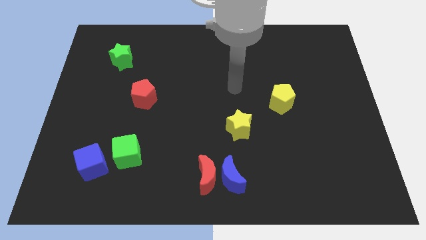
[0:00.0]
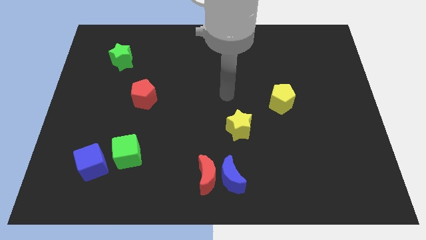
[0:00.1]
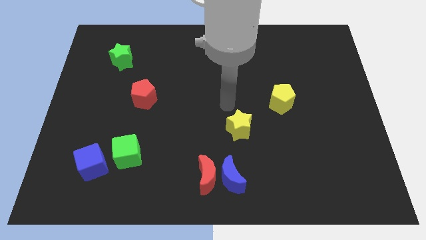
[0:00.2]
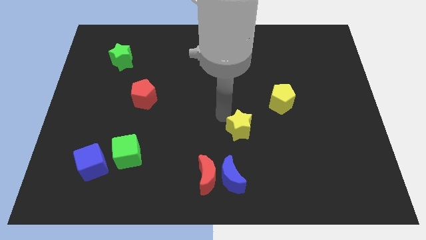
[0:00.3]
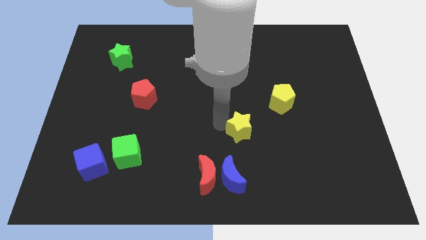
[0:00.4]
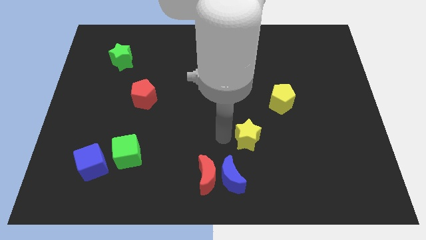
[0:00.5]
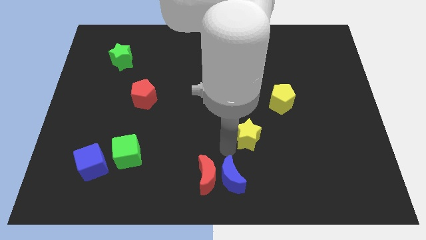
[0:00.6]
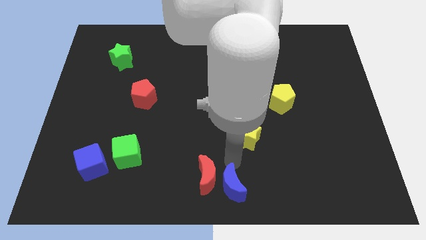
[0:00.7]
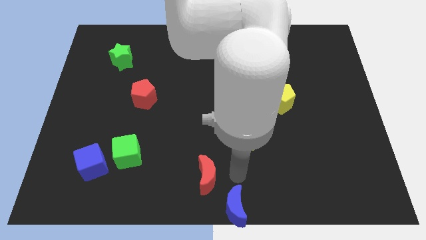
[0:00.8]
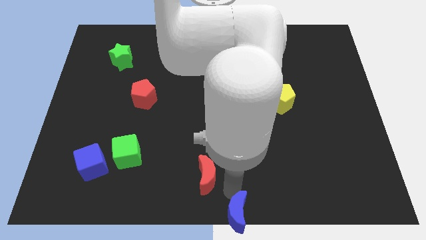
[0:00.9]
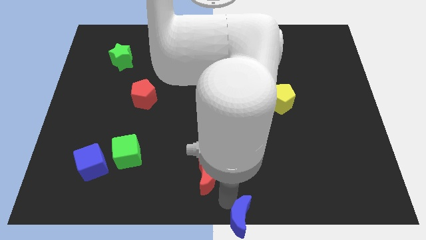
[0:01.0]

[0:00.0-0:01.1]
move the red moon away from the blue moon

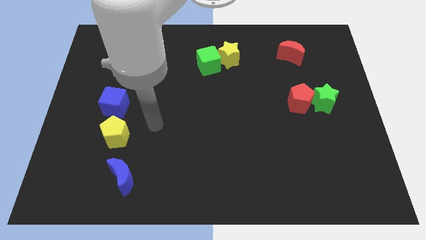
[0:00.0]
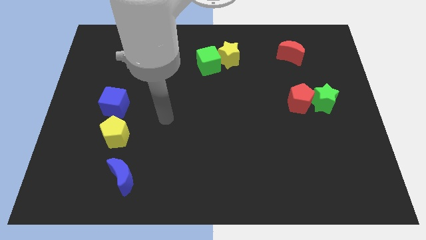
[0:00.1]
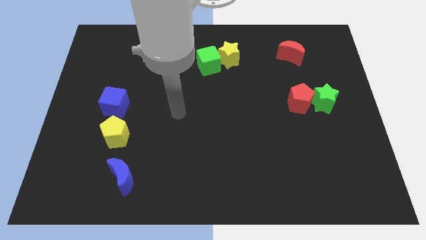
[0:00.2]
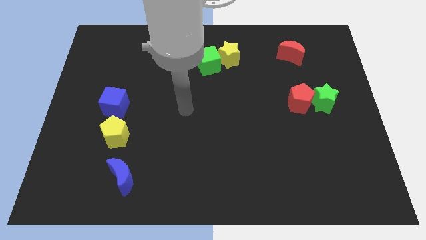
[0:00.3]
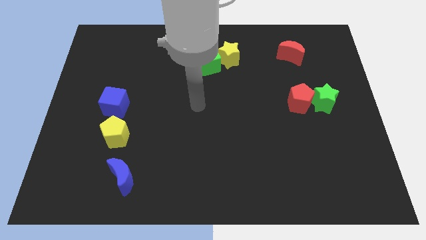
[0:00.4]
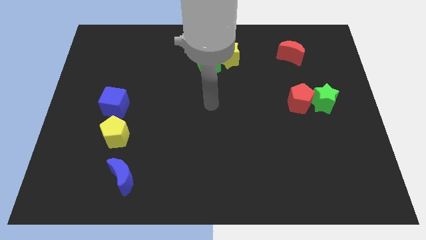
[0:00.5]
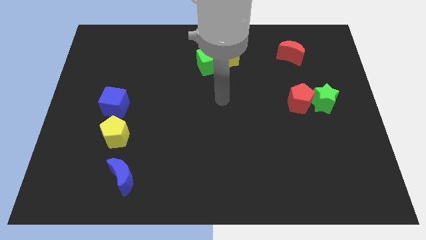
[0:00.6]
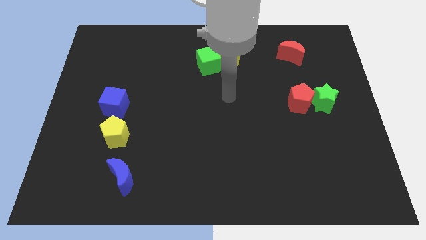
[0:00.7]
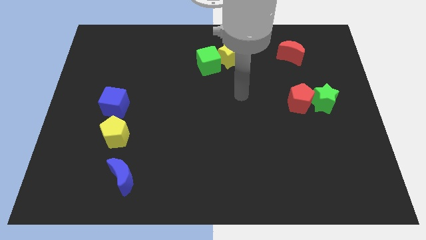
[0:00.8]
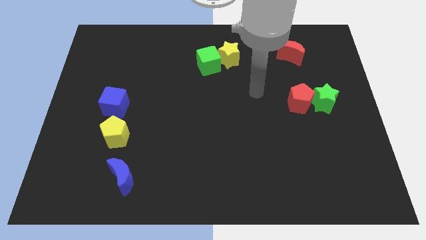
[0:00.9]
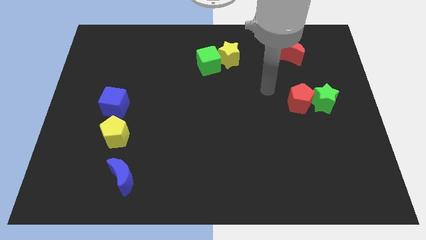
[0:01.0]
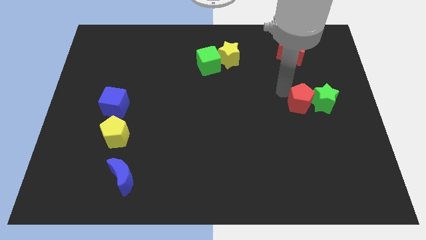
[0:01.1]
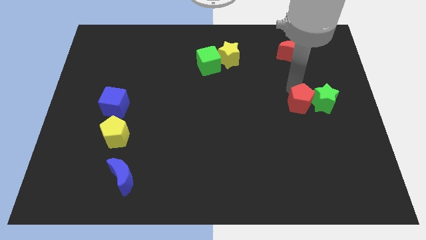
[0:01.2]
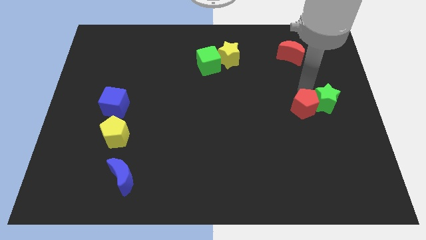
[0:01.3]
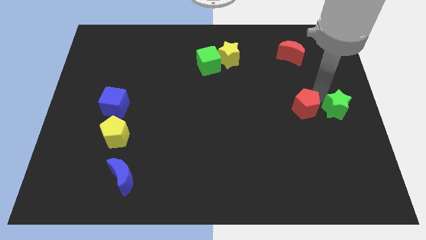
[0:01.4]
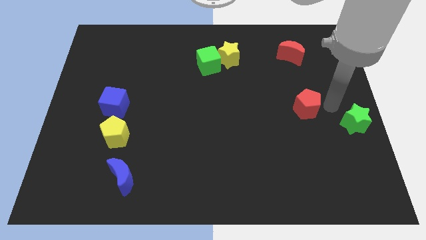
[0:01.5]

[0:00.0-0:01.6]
separate the red pentagon from the green star

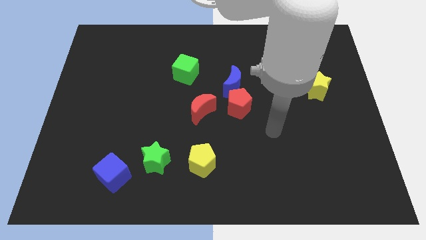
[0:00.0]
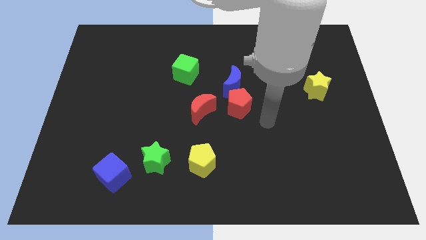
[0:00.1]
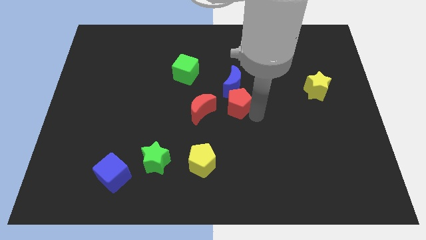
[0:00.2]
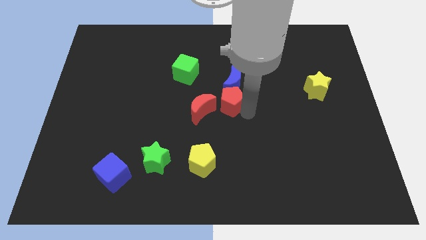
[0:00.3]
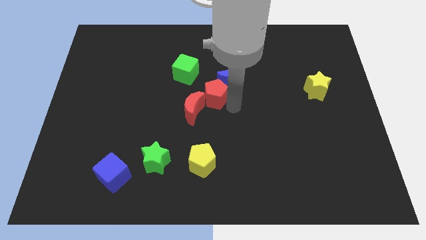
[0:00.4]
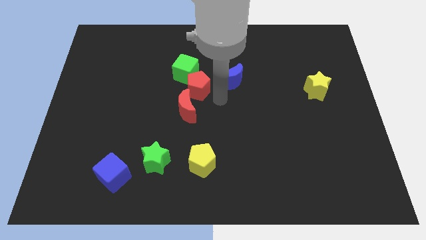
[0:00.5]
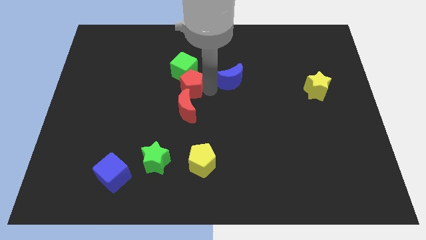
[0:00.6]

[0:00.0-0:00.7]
pull the blue moon apart from the red pentagon

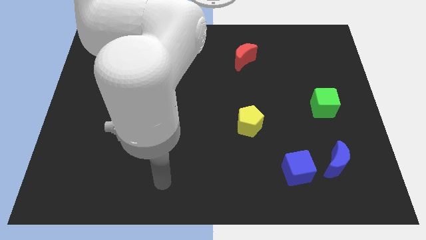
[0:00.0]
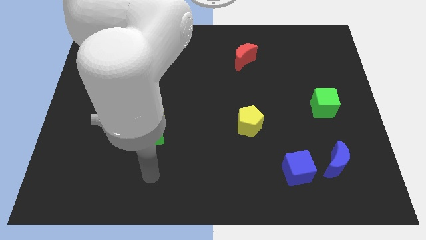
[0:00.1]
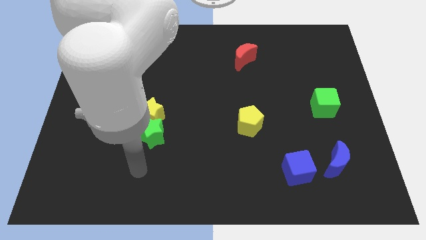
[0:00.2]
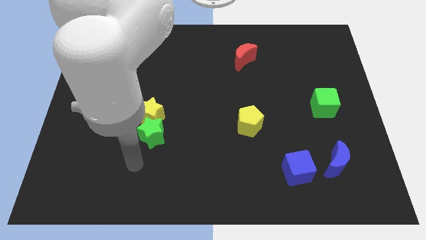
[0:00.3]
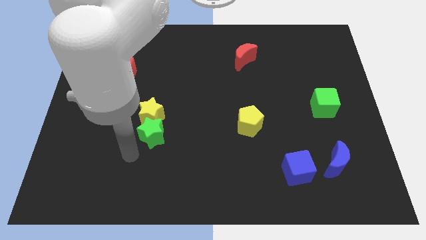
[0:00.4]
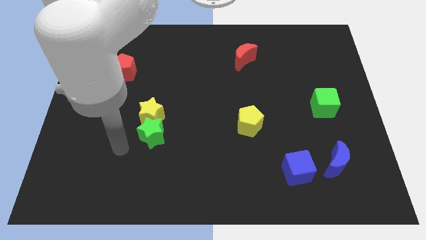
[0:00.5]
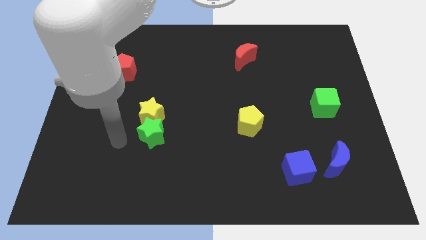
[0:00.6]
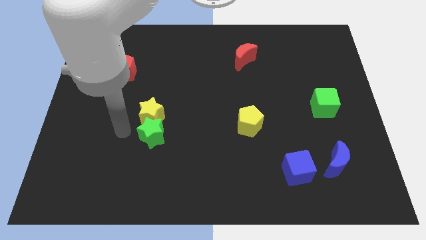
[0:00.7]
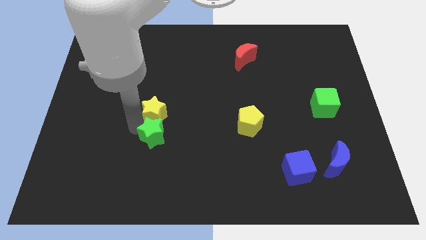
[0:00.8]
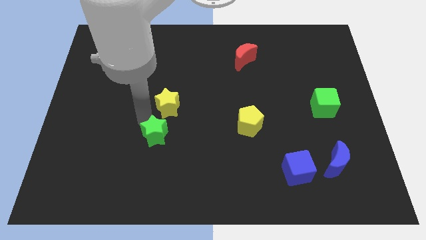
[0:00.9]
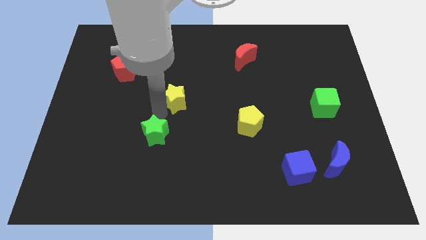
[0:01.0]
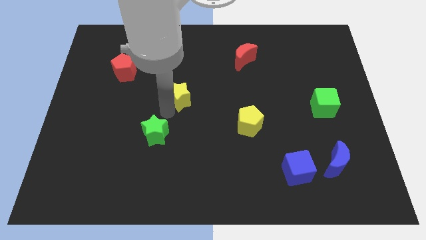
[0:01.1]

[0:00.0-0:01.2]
separate the green star from the yellow star

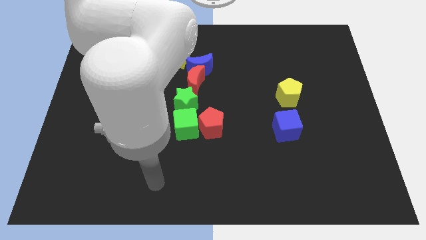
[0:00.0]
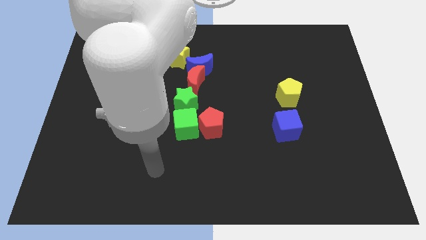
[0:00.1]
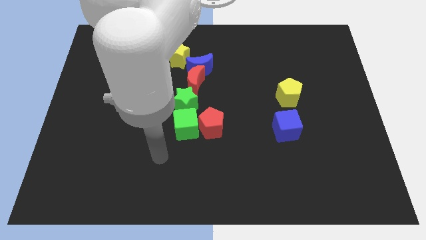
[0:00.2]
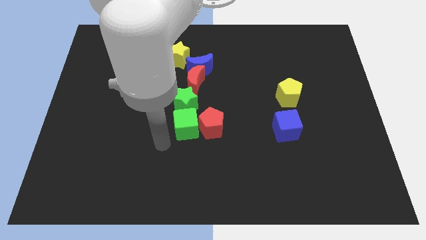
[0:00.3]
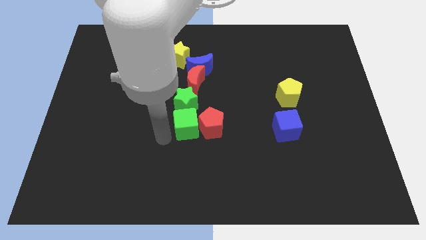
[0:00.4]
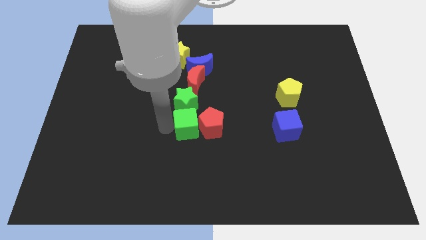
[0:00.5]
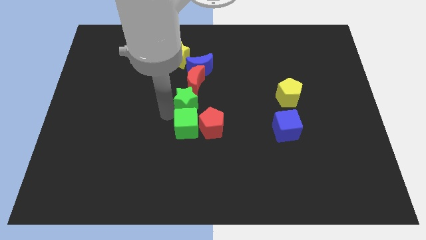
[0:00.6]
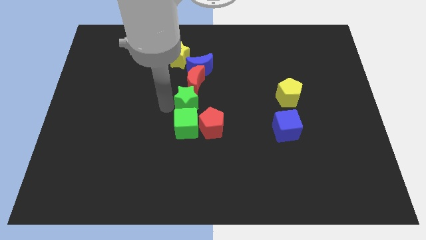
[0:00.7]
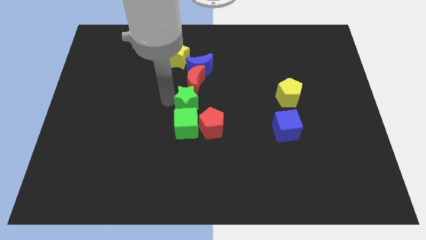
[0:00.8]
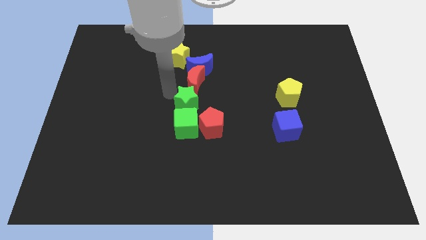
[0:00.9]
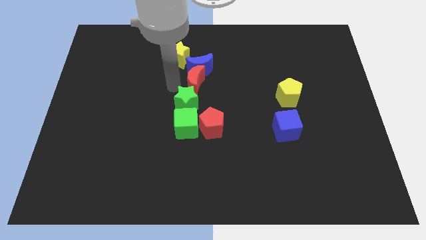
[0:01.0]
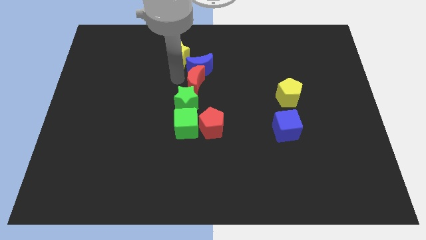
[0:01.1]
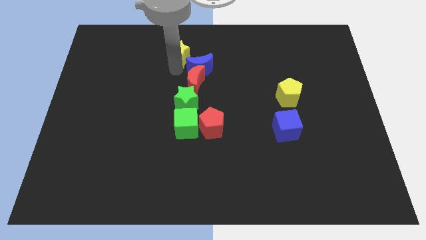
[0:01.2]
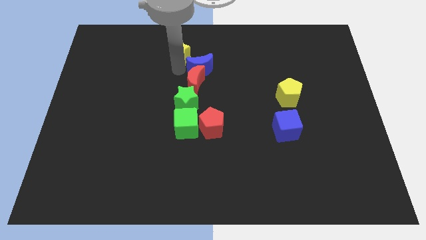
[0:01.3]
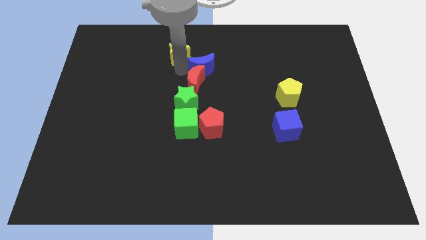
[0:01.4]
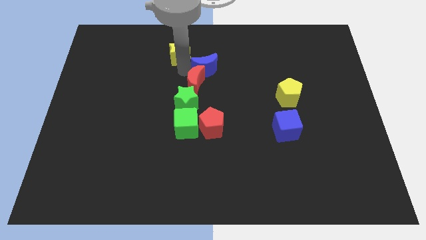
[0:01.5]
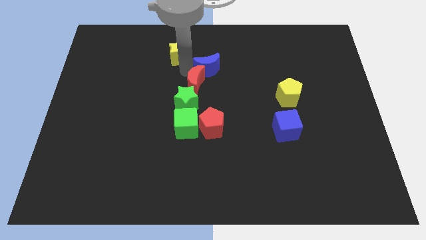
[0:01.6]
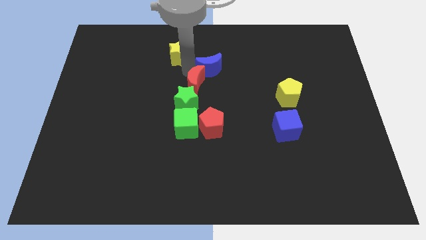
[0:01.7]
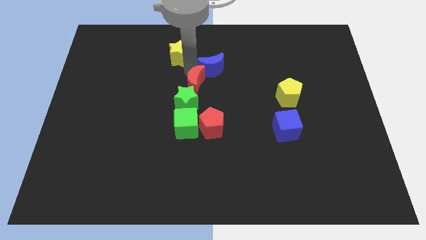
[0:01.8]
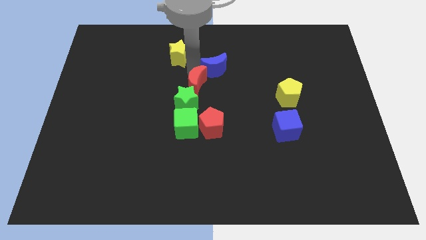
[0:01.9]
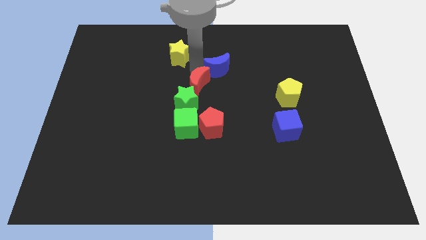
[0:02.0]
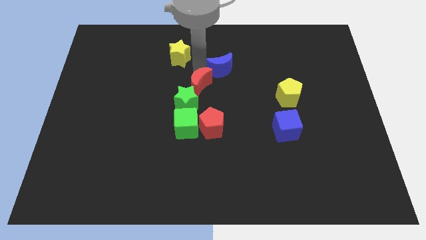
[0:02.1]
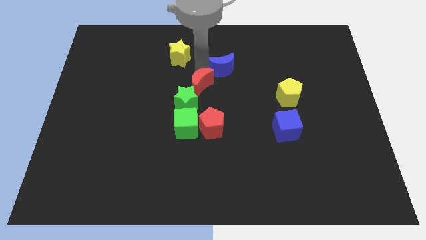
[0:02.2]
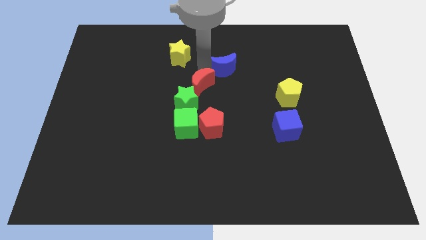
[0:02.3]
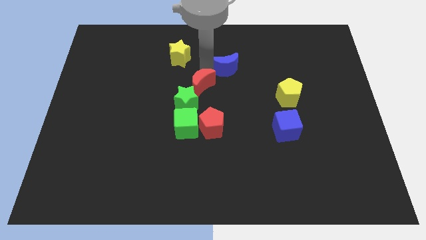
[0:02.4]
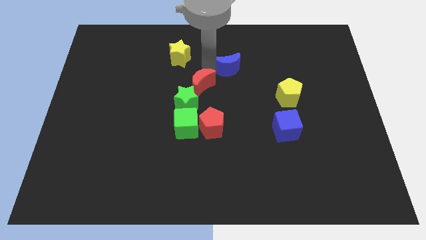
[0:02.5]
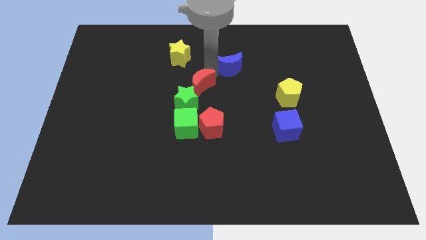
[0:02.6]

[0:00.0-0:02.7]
move the blue moon away from the red moon and yellow star

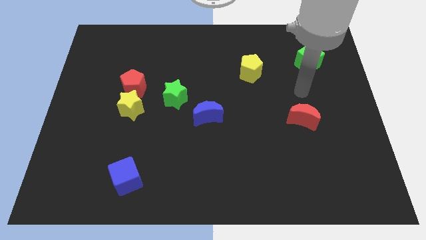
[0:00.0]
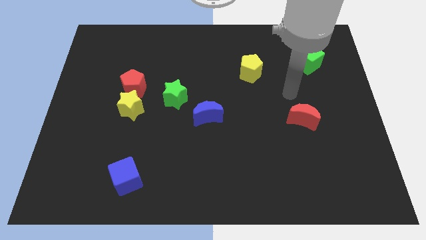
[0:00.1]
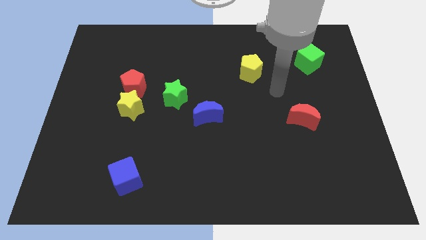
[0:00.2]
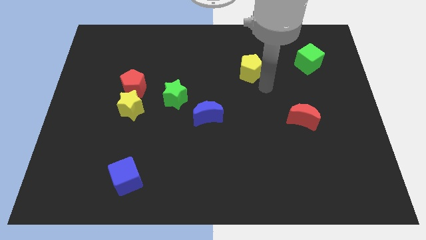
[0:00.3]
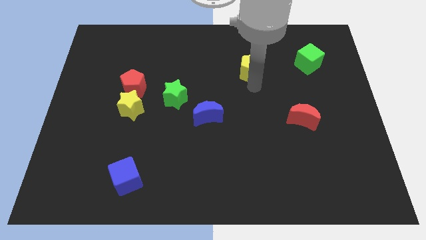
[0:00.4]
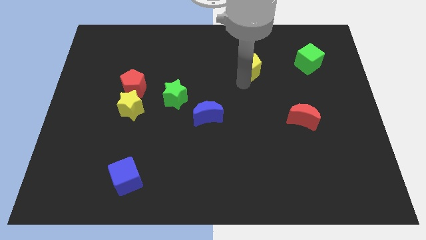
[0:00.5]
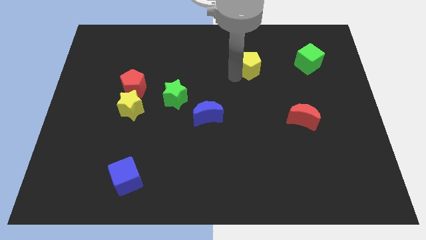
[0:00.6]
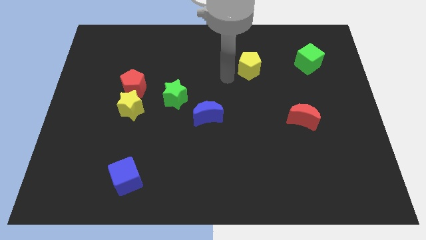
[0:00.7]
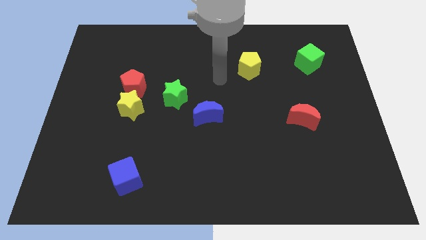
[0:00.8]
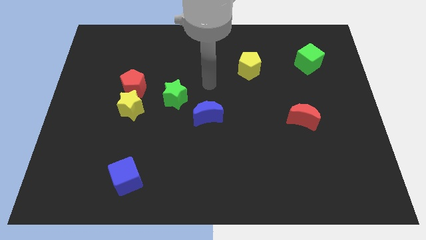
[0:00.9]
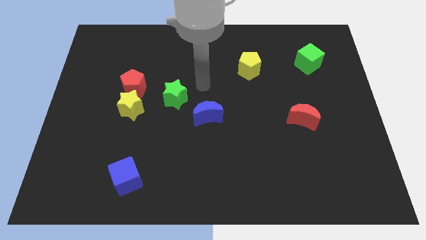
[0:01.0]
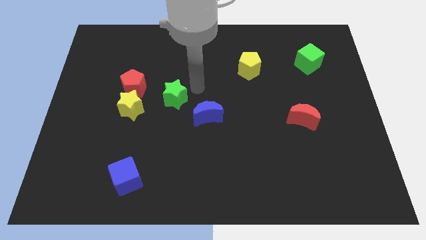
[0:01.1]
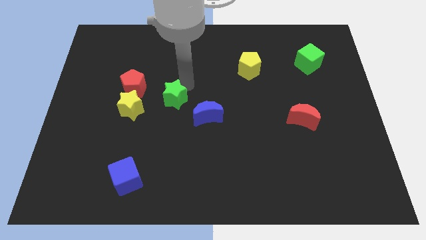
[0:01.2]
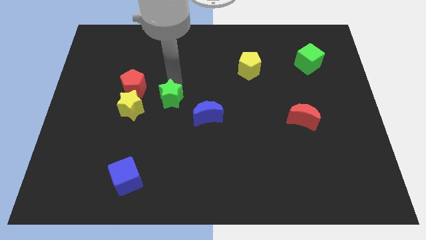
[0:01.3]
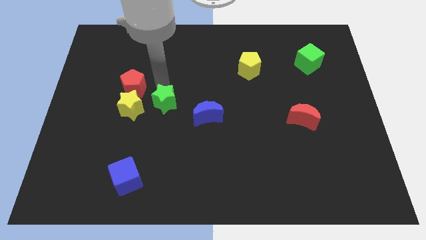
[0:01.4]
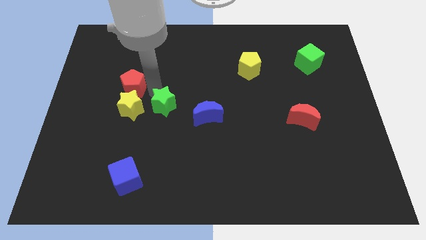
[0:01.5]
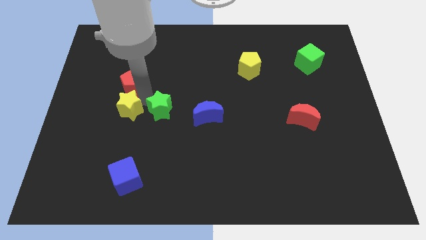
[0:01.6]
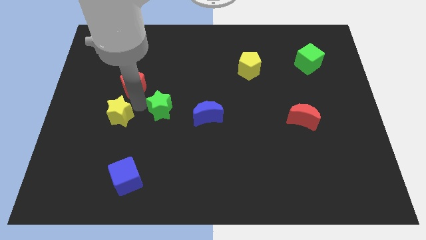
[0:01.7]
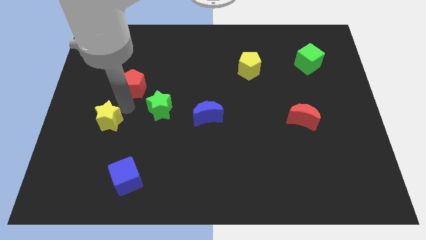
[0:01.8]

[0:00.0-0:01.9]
separate the red pentagon from the yellow star

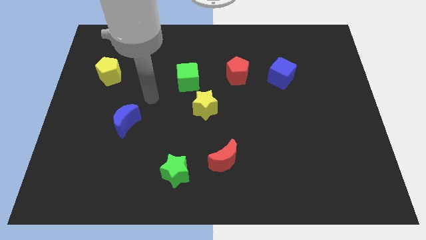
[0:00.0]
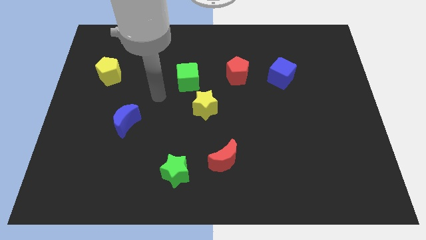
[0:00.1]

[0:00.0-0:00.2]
move the green cube away from the yellow star
